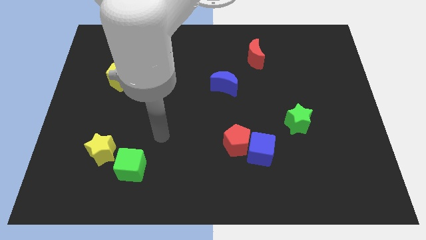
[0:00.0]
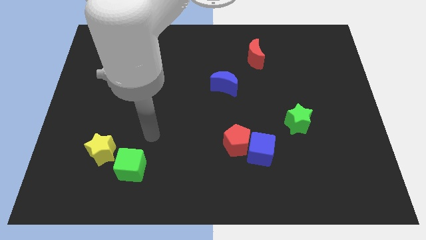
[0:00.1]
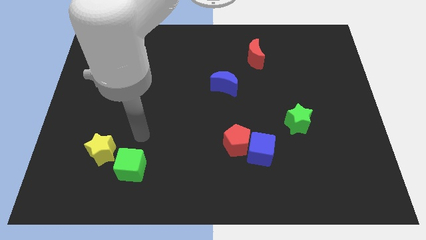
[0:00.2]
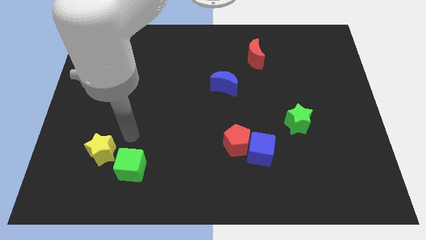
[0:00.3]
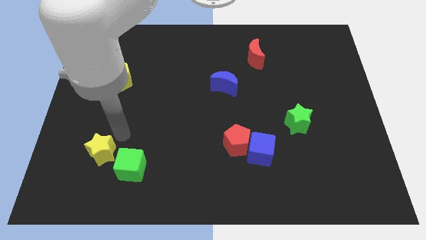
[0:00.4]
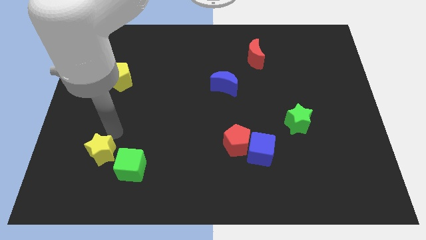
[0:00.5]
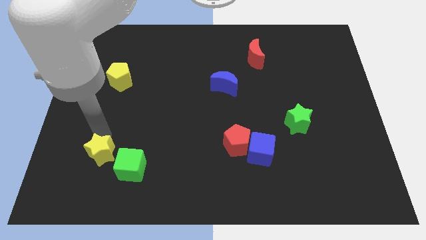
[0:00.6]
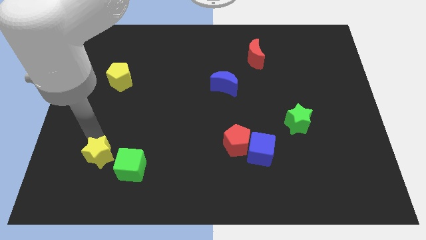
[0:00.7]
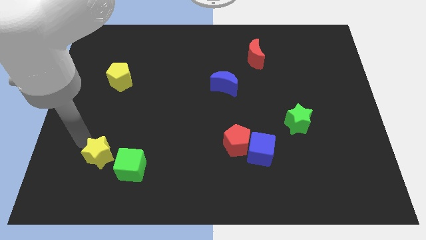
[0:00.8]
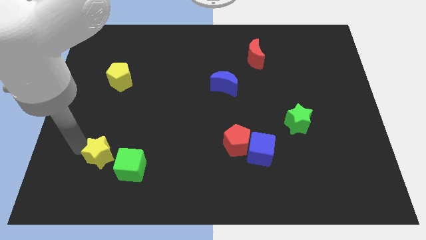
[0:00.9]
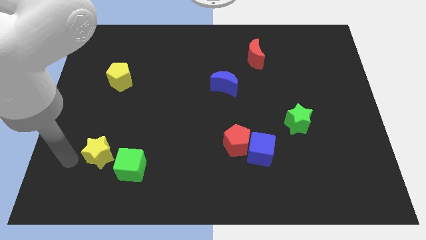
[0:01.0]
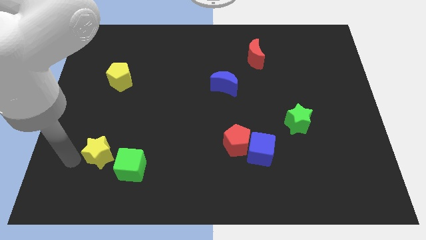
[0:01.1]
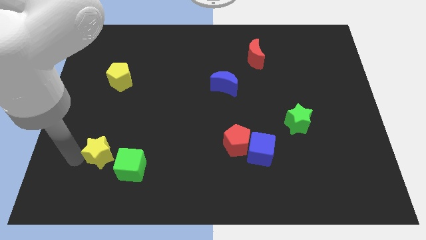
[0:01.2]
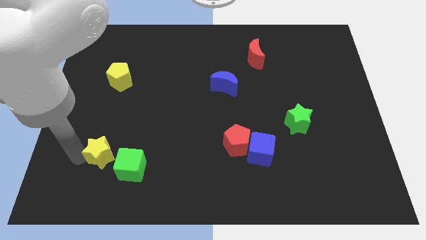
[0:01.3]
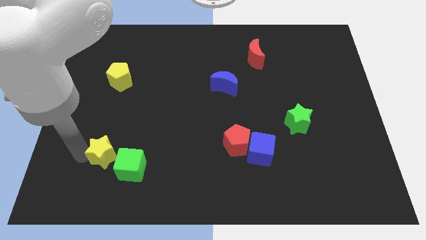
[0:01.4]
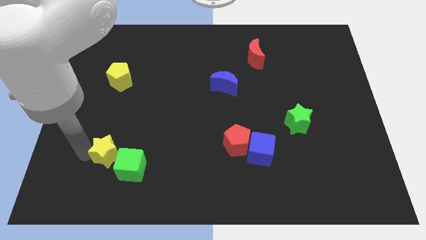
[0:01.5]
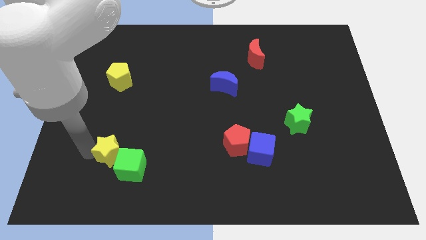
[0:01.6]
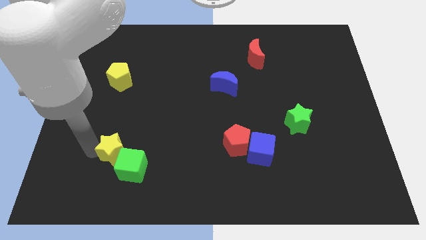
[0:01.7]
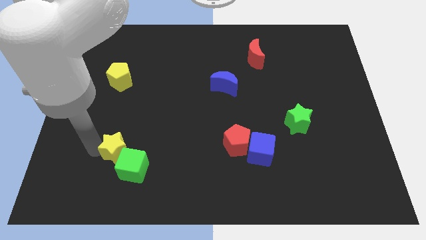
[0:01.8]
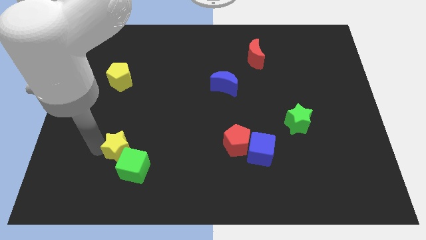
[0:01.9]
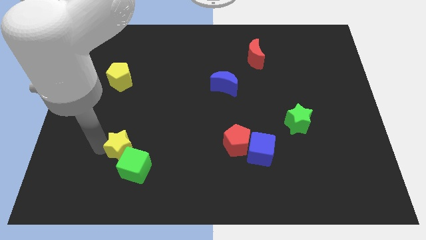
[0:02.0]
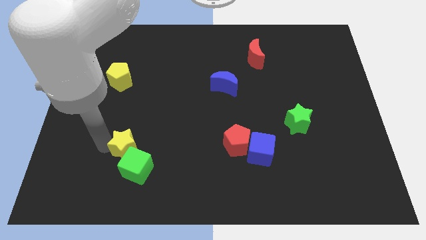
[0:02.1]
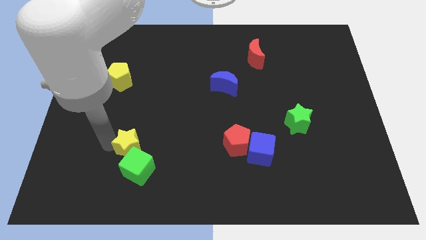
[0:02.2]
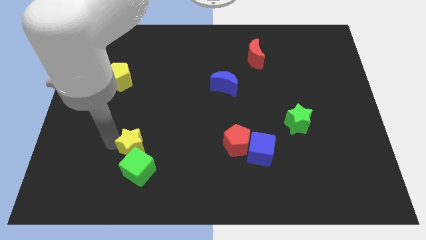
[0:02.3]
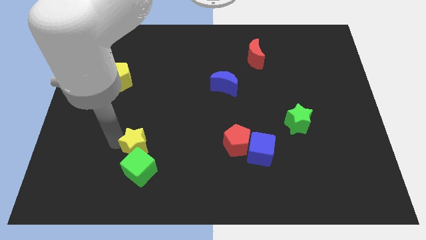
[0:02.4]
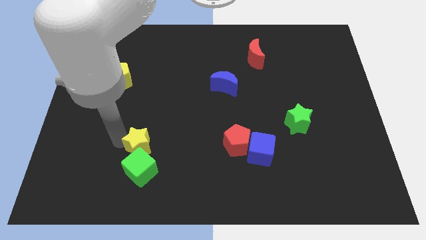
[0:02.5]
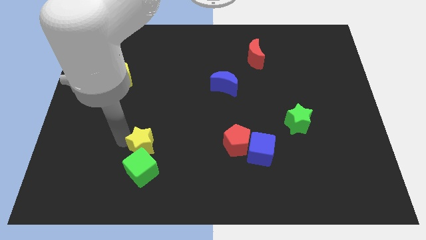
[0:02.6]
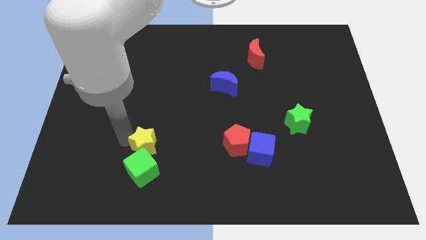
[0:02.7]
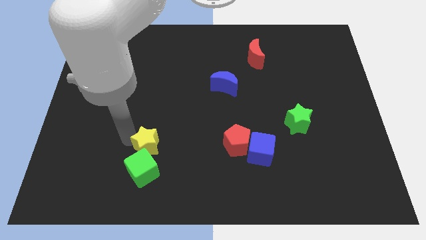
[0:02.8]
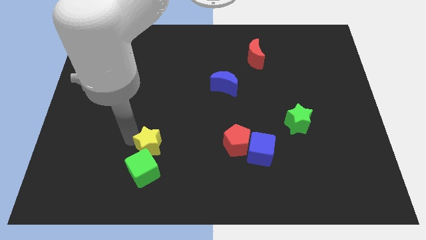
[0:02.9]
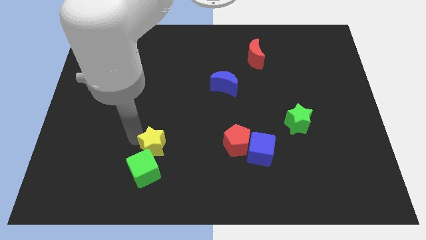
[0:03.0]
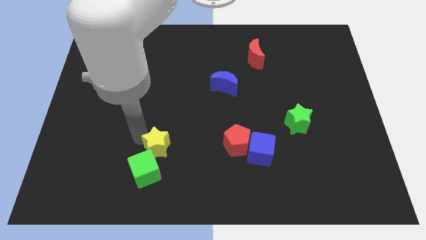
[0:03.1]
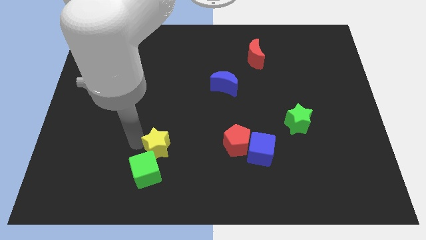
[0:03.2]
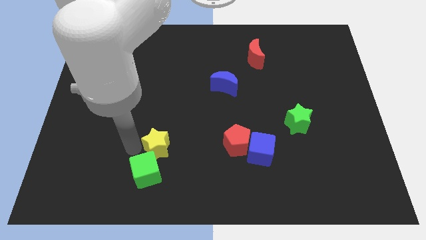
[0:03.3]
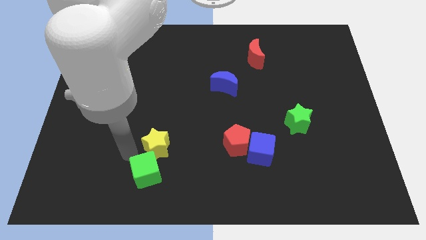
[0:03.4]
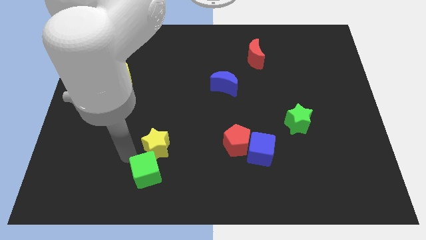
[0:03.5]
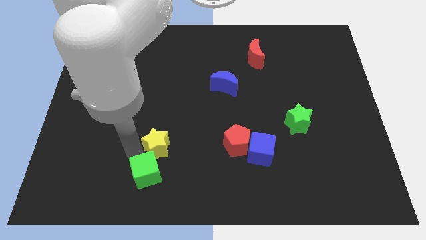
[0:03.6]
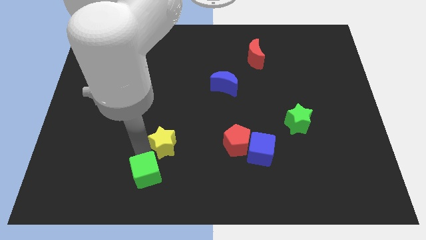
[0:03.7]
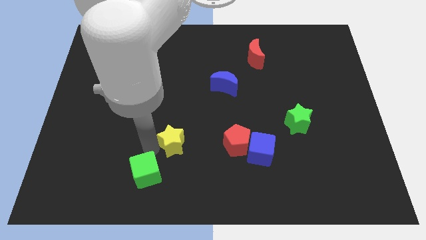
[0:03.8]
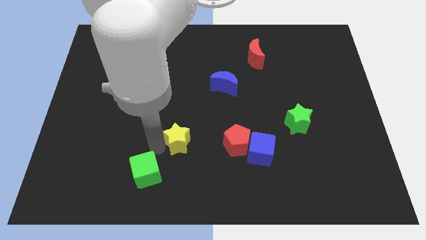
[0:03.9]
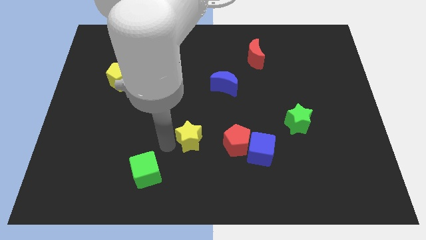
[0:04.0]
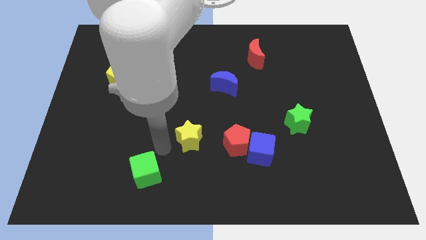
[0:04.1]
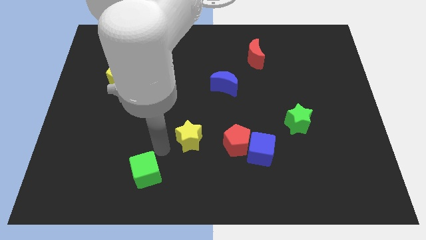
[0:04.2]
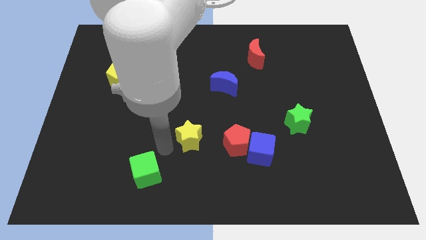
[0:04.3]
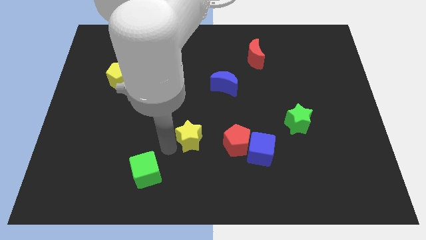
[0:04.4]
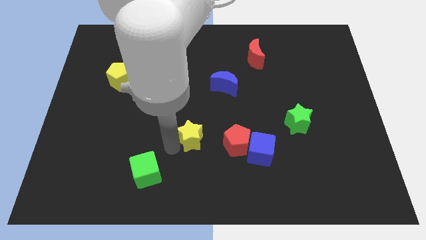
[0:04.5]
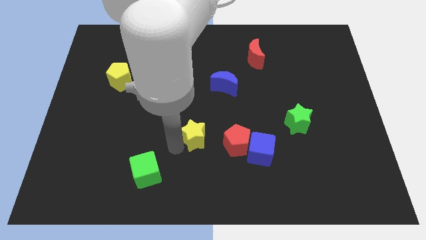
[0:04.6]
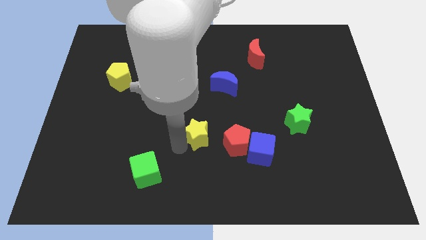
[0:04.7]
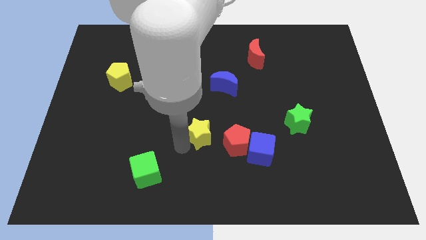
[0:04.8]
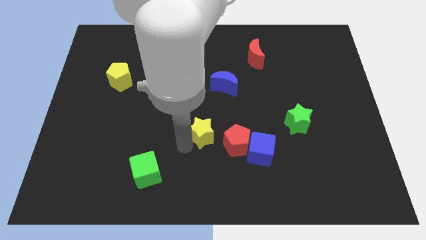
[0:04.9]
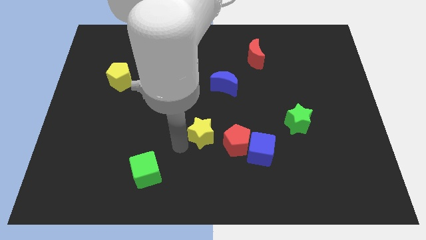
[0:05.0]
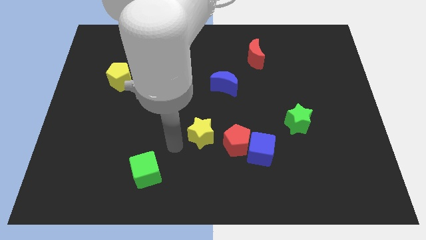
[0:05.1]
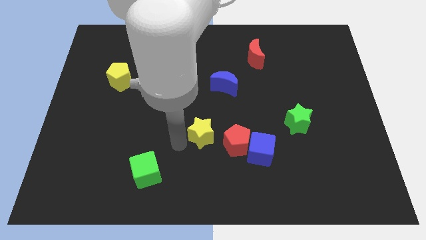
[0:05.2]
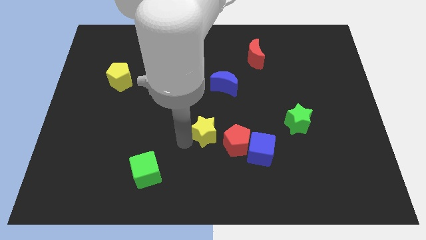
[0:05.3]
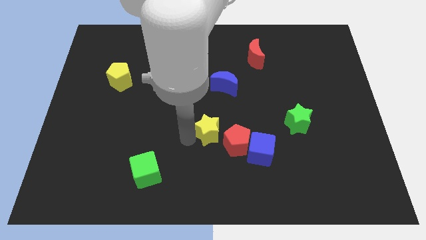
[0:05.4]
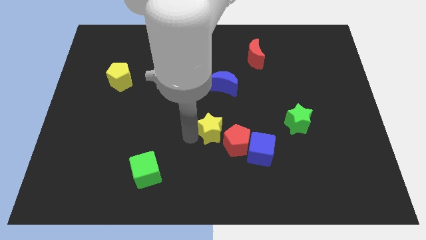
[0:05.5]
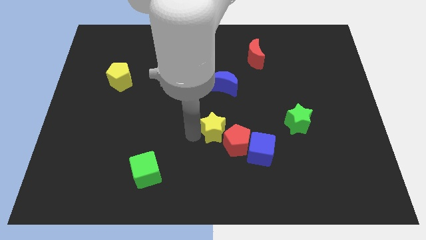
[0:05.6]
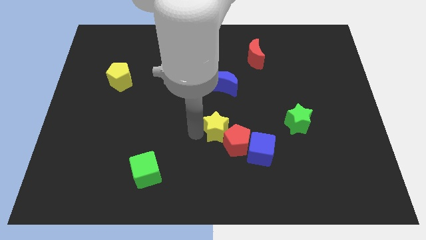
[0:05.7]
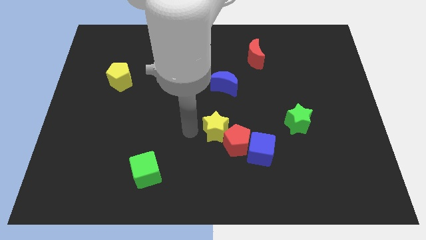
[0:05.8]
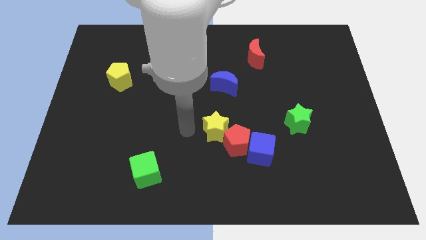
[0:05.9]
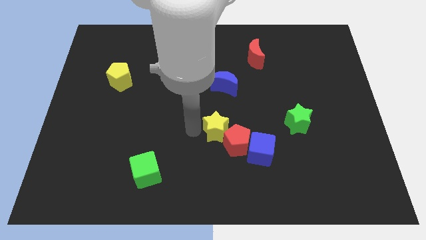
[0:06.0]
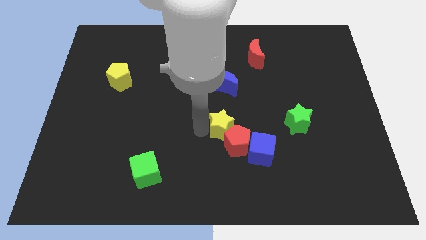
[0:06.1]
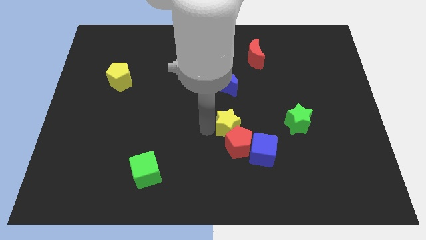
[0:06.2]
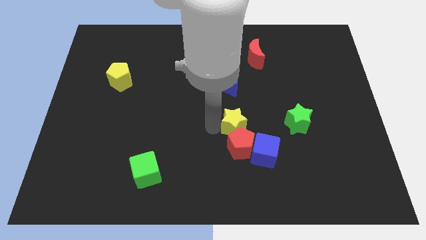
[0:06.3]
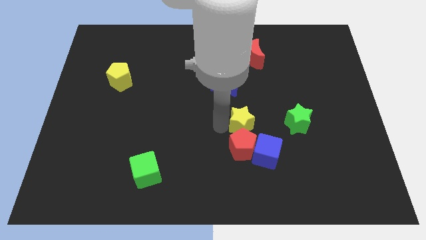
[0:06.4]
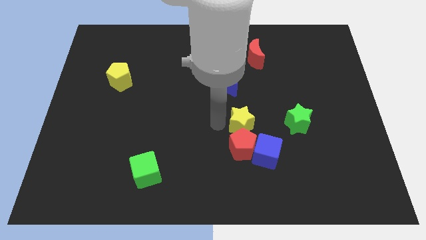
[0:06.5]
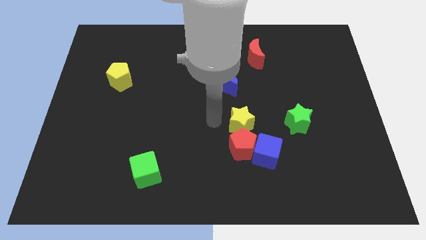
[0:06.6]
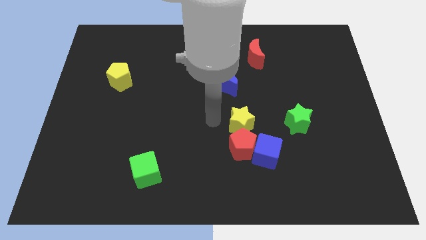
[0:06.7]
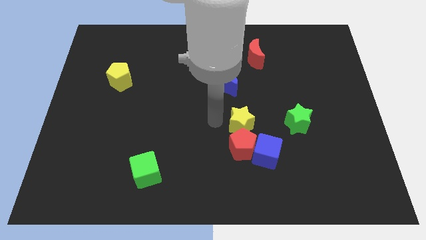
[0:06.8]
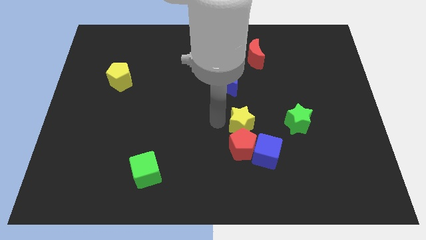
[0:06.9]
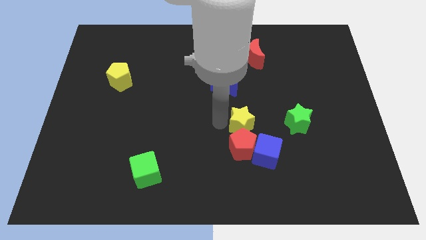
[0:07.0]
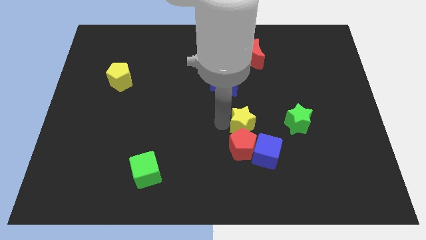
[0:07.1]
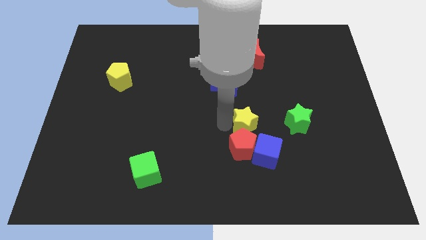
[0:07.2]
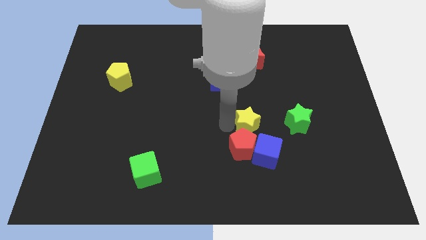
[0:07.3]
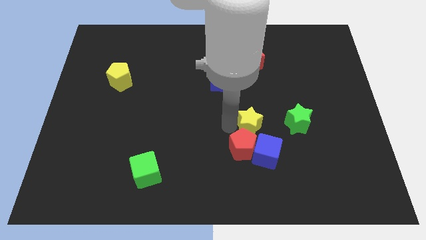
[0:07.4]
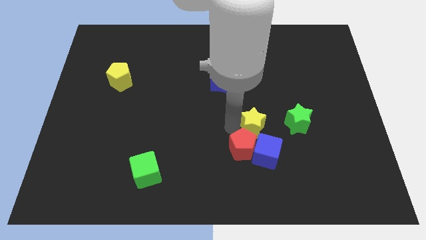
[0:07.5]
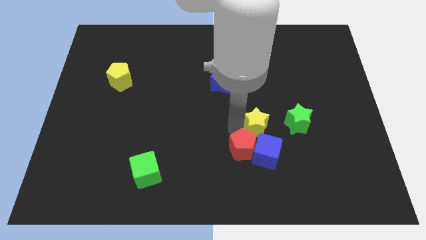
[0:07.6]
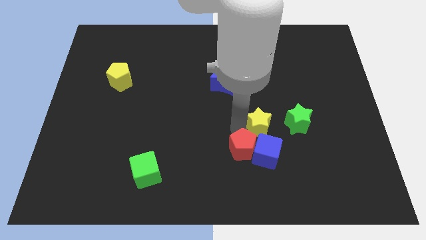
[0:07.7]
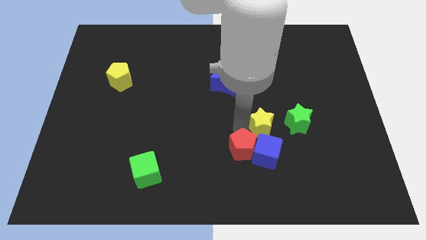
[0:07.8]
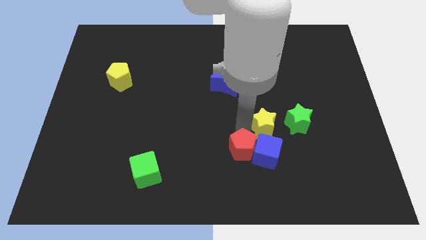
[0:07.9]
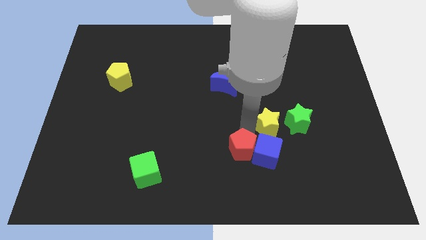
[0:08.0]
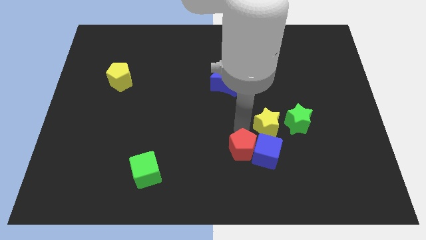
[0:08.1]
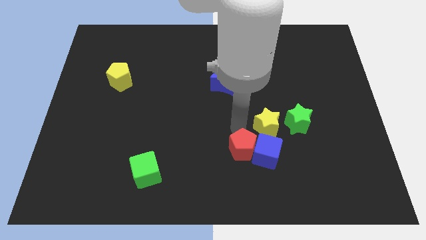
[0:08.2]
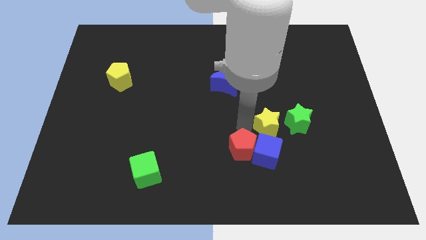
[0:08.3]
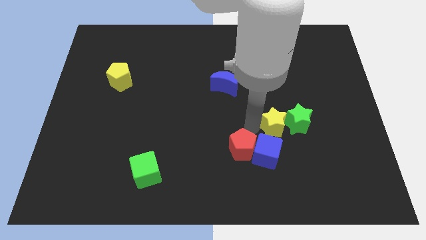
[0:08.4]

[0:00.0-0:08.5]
move the yellow star next to the green star
